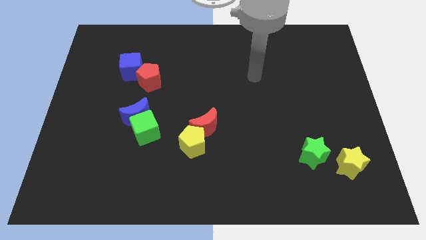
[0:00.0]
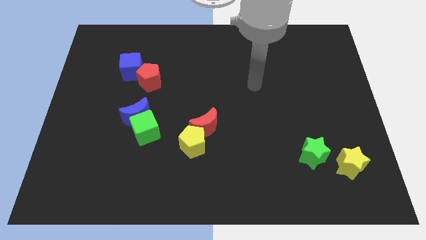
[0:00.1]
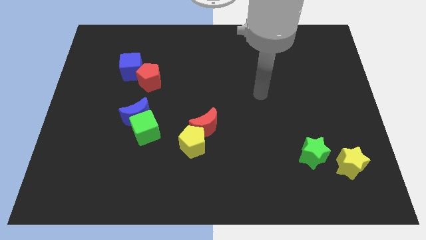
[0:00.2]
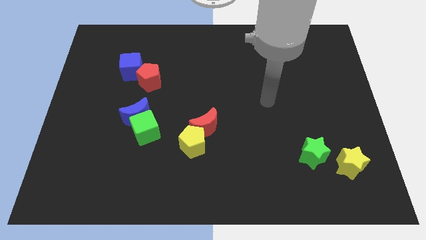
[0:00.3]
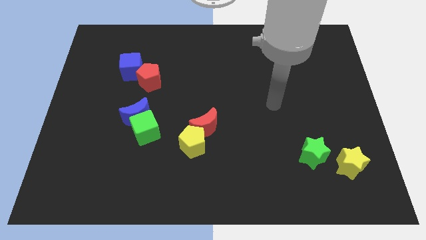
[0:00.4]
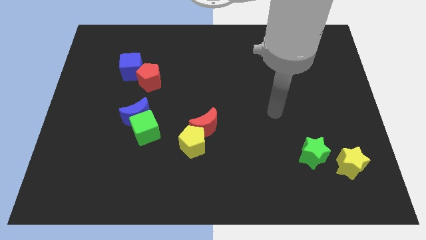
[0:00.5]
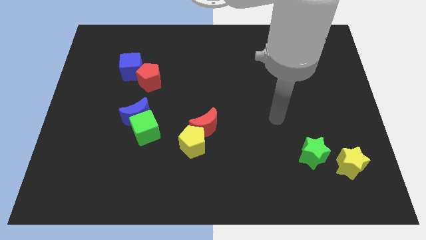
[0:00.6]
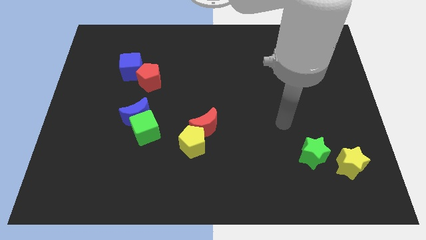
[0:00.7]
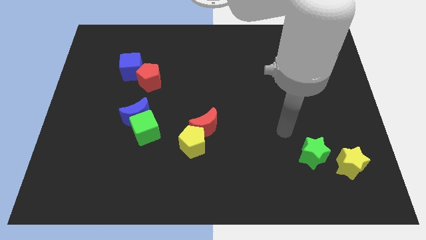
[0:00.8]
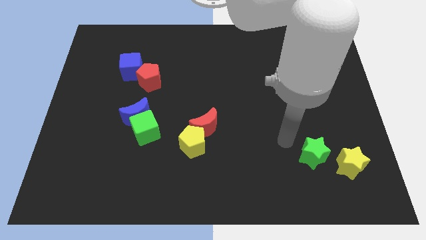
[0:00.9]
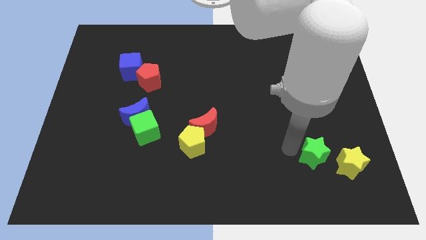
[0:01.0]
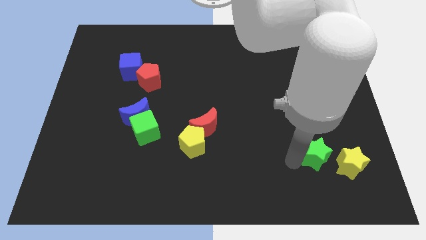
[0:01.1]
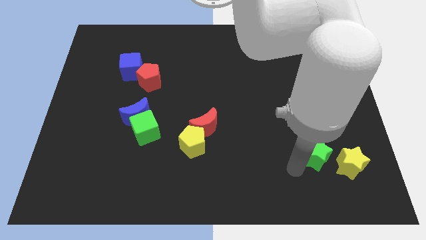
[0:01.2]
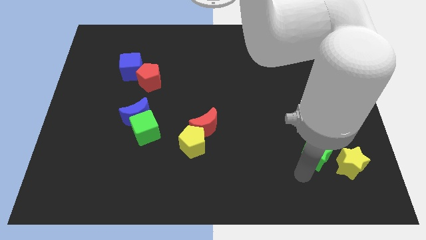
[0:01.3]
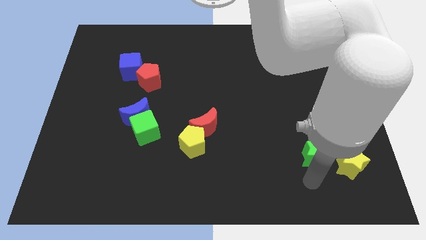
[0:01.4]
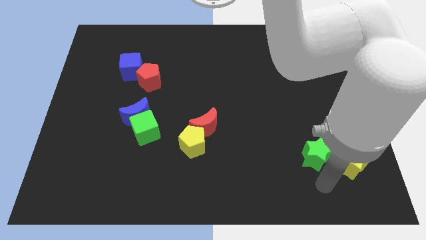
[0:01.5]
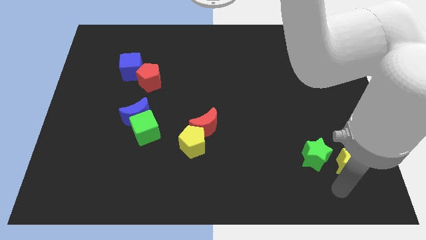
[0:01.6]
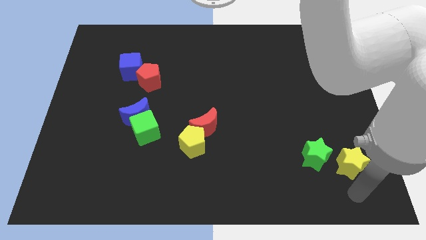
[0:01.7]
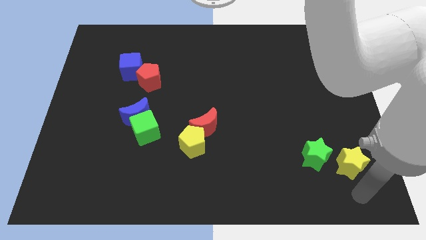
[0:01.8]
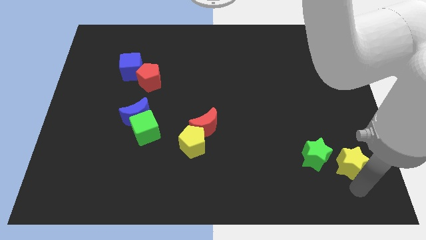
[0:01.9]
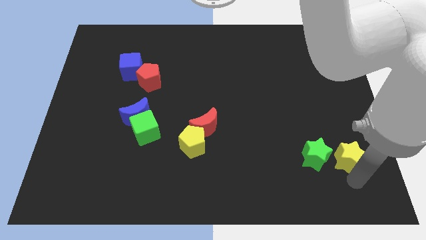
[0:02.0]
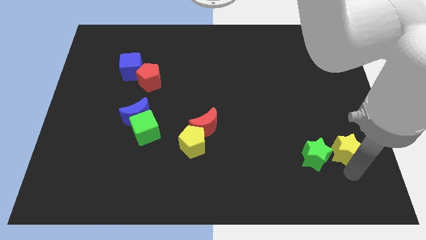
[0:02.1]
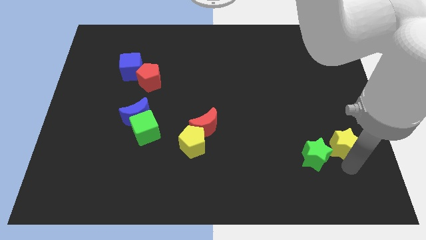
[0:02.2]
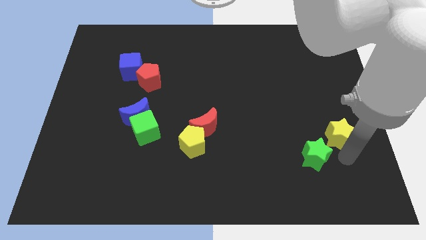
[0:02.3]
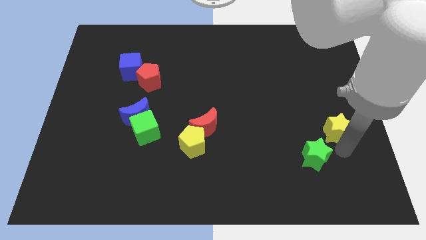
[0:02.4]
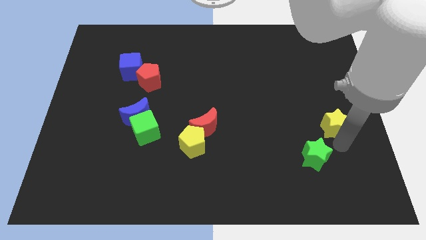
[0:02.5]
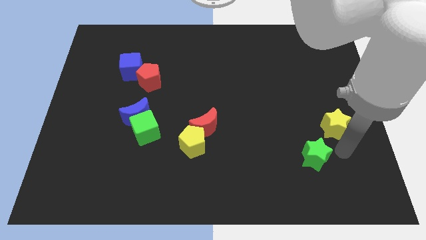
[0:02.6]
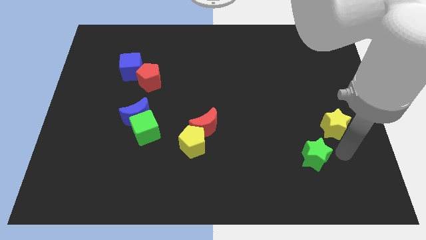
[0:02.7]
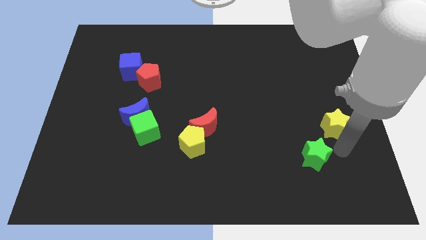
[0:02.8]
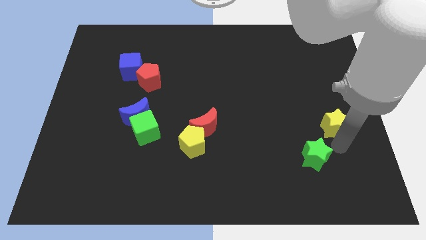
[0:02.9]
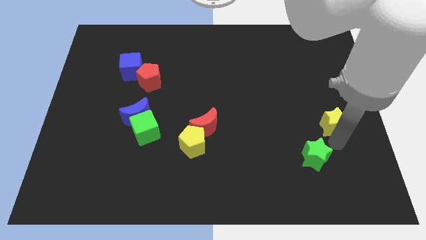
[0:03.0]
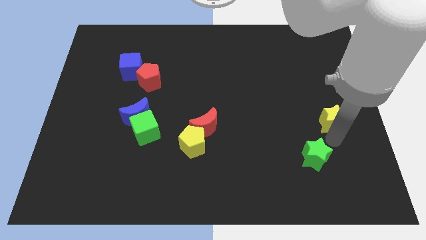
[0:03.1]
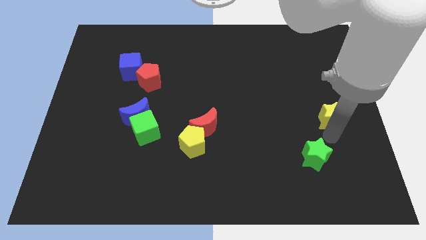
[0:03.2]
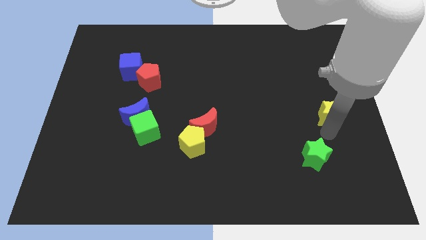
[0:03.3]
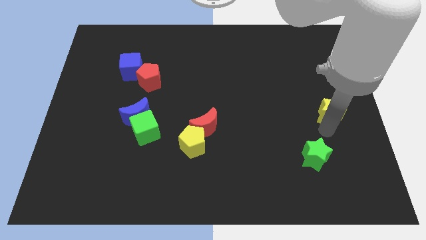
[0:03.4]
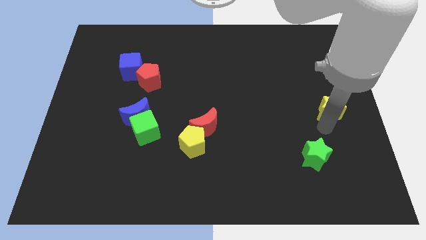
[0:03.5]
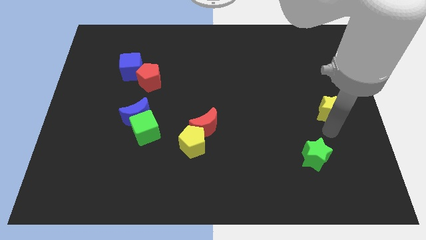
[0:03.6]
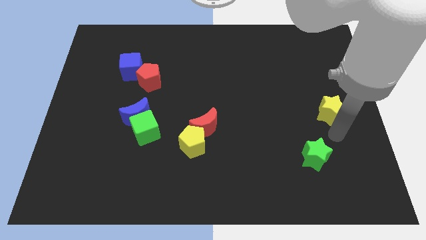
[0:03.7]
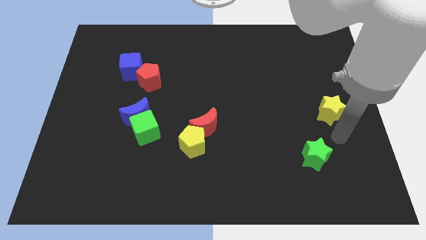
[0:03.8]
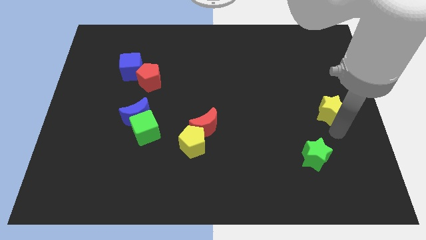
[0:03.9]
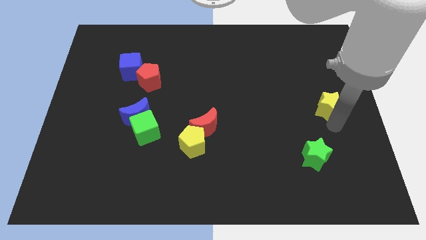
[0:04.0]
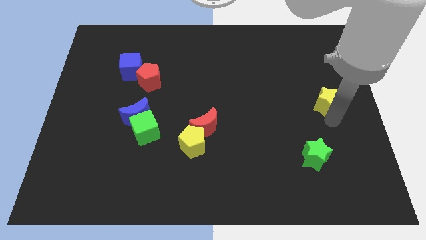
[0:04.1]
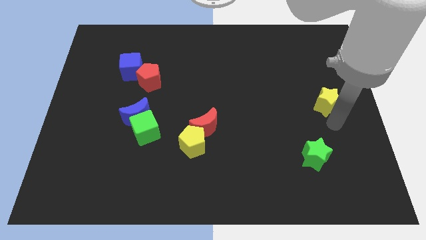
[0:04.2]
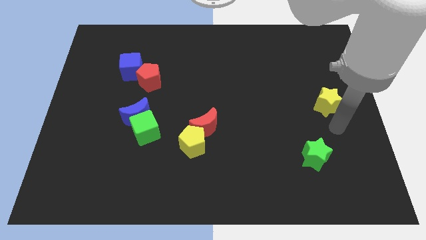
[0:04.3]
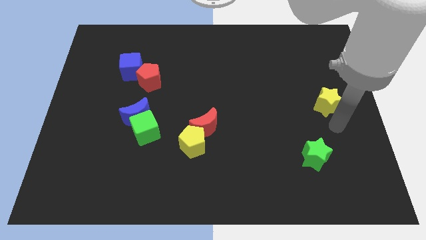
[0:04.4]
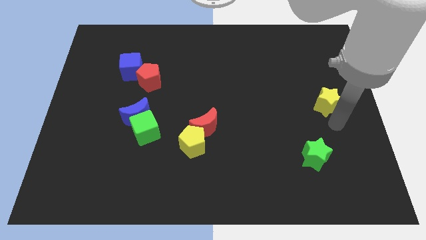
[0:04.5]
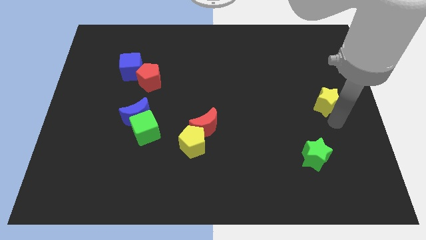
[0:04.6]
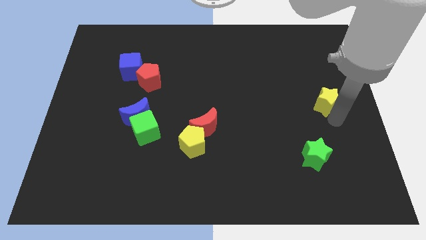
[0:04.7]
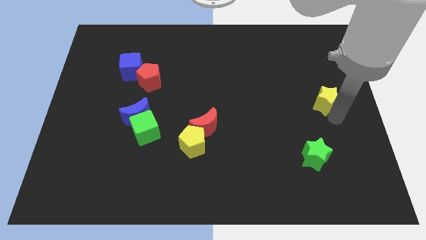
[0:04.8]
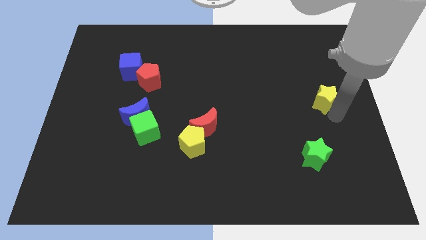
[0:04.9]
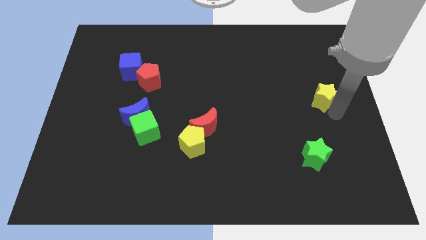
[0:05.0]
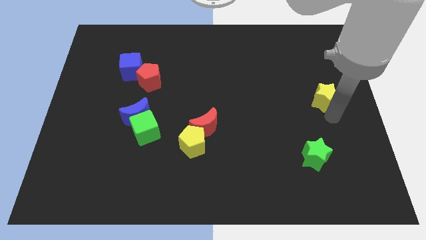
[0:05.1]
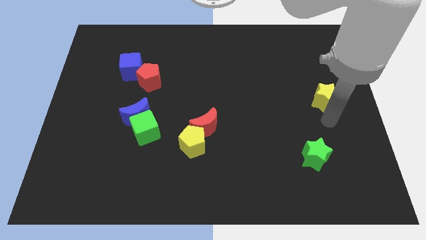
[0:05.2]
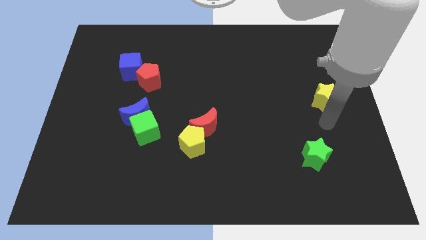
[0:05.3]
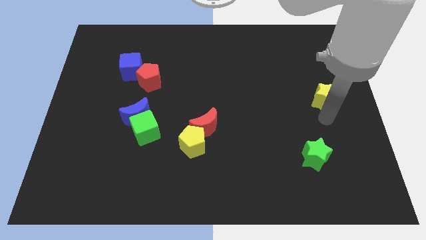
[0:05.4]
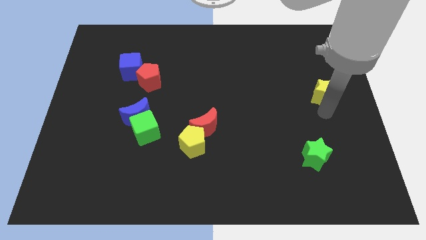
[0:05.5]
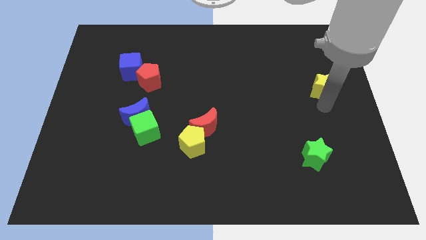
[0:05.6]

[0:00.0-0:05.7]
slide the yellow star upwards

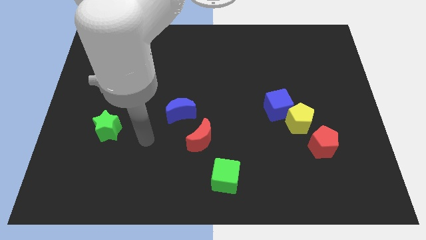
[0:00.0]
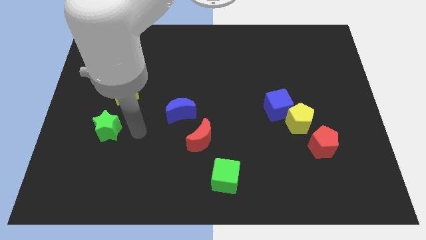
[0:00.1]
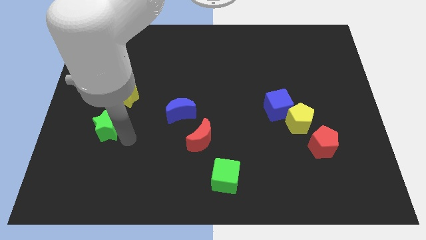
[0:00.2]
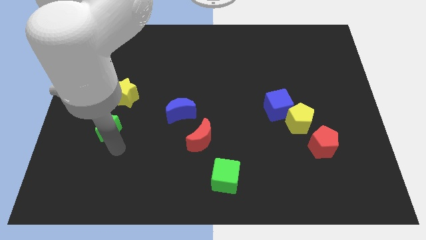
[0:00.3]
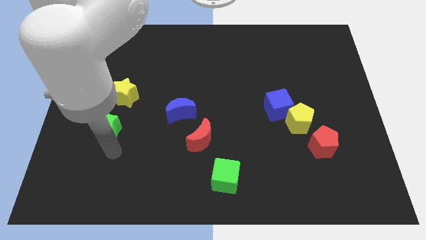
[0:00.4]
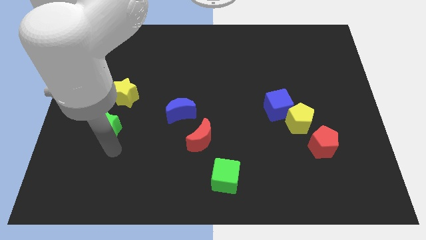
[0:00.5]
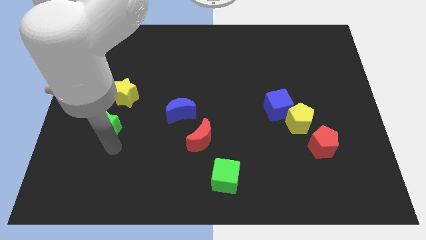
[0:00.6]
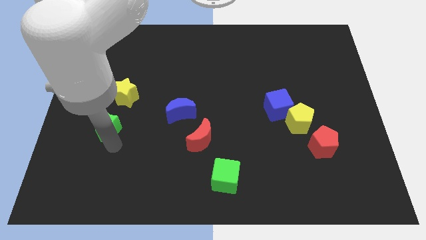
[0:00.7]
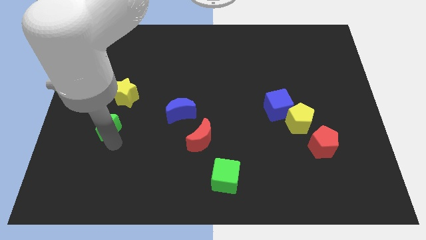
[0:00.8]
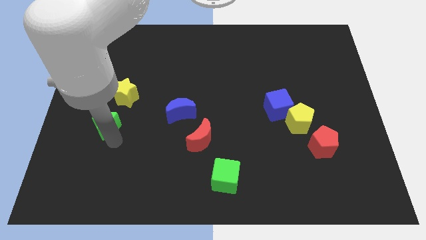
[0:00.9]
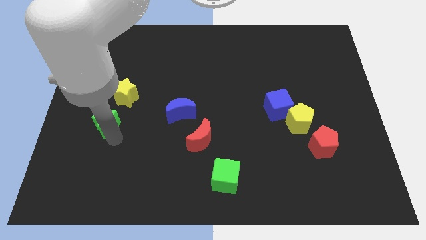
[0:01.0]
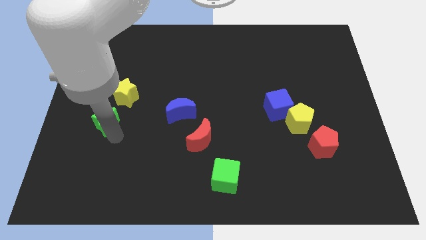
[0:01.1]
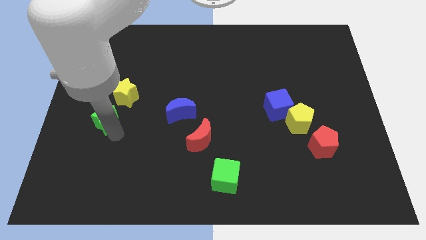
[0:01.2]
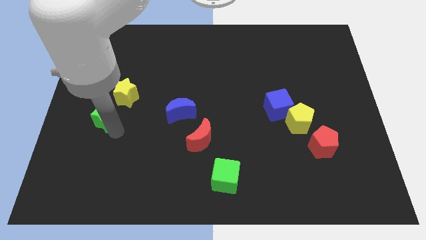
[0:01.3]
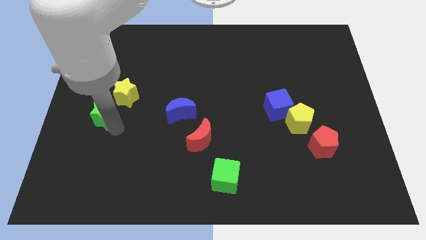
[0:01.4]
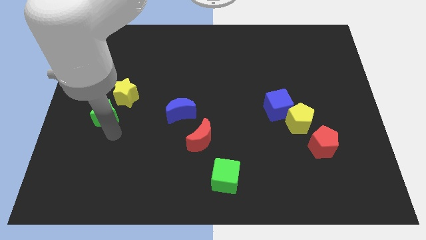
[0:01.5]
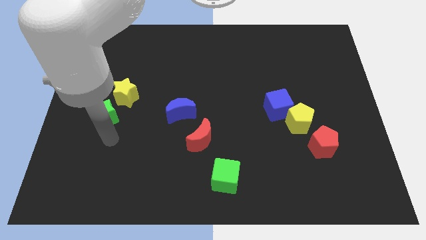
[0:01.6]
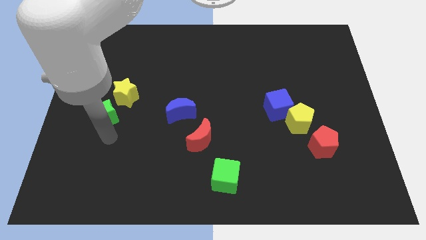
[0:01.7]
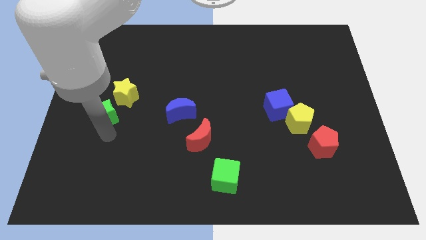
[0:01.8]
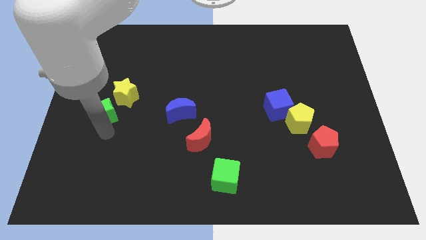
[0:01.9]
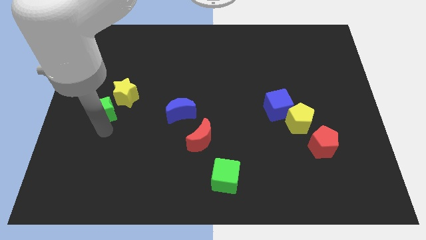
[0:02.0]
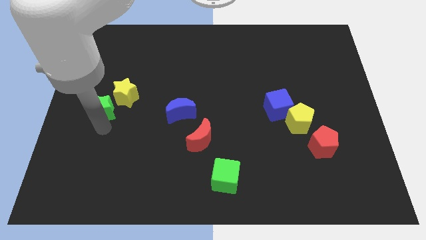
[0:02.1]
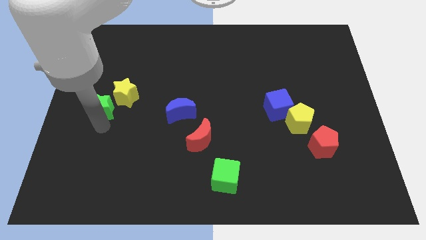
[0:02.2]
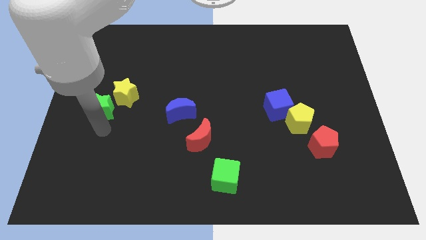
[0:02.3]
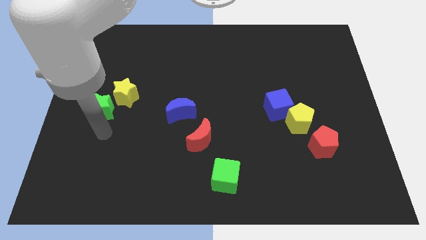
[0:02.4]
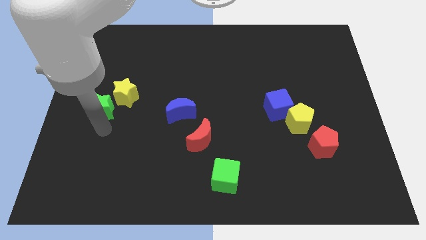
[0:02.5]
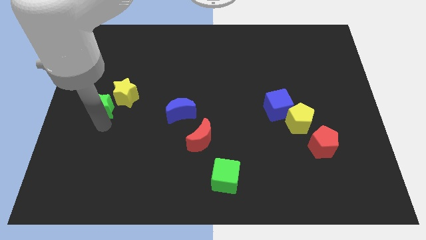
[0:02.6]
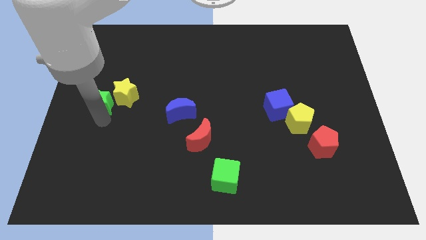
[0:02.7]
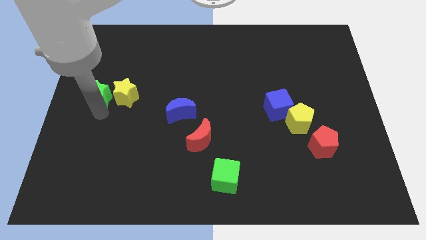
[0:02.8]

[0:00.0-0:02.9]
slide the green star up slightly
